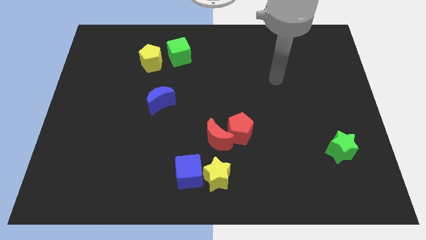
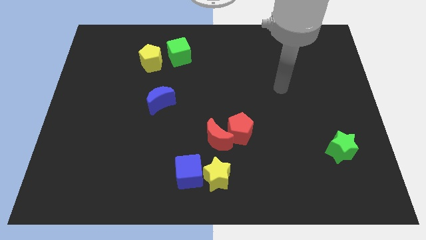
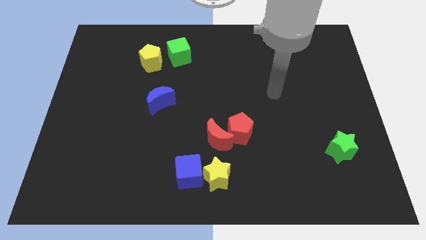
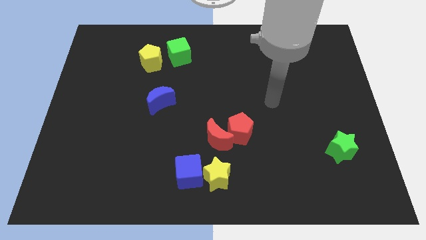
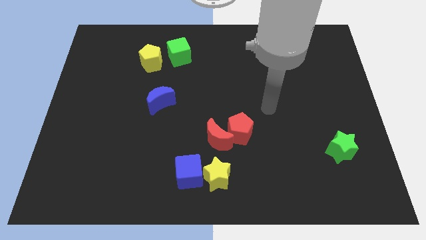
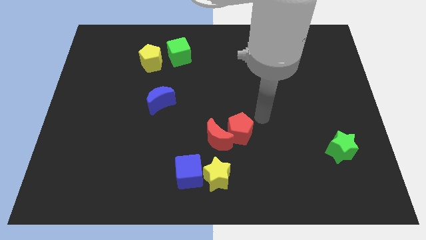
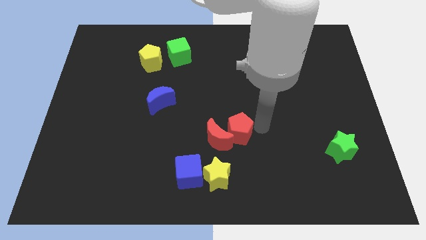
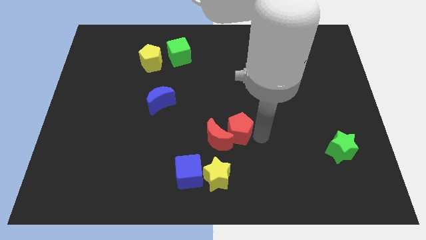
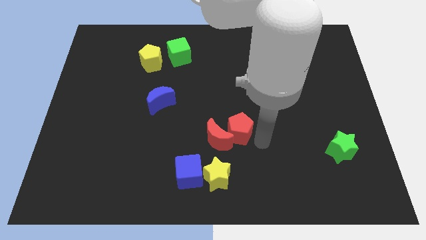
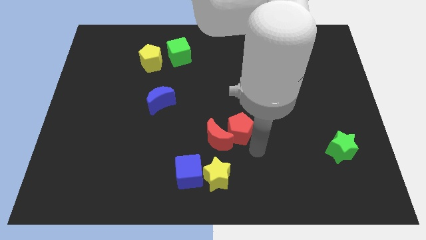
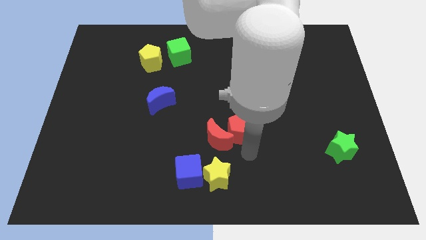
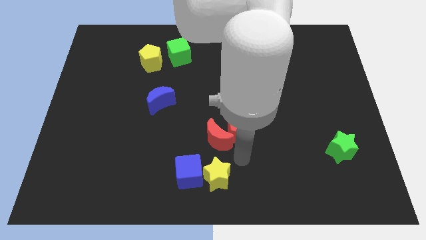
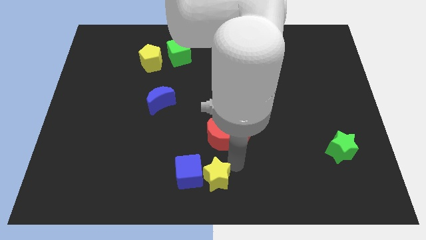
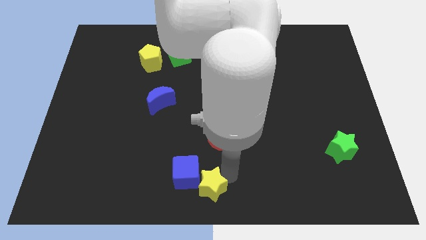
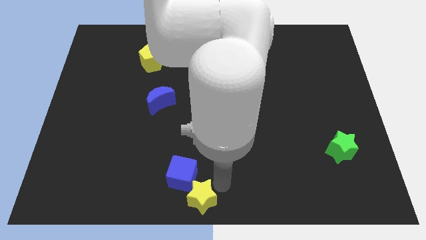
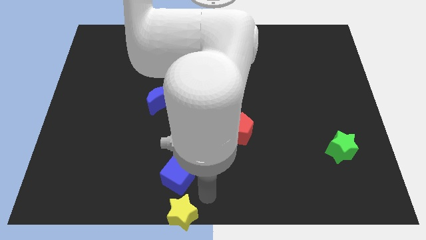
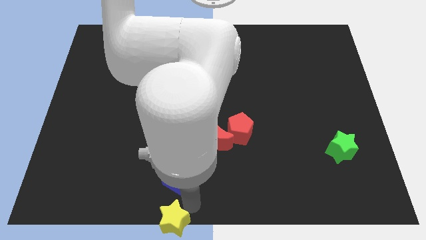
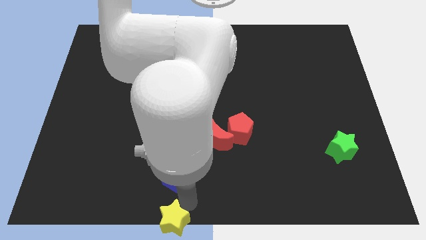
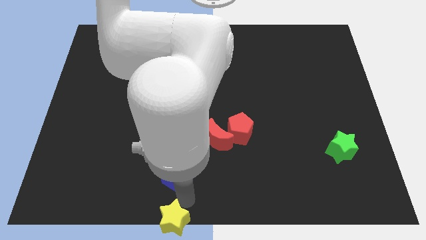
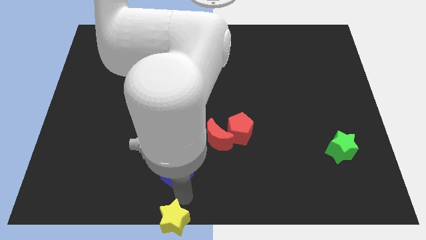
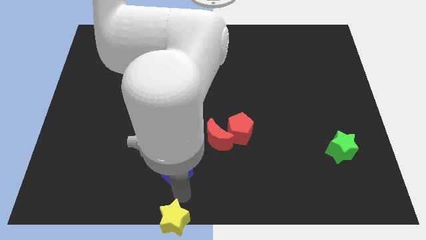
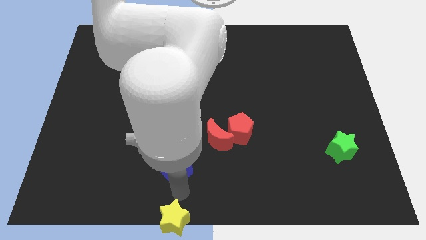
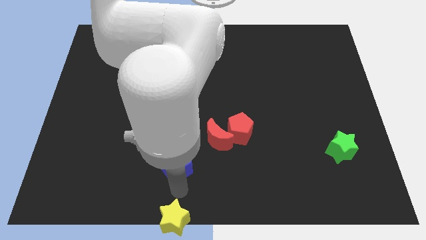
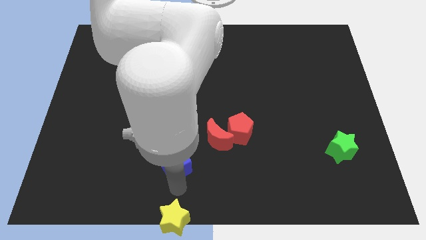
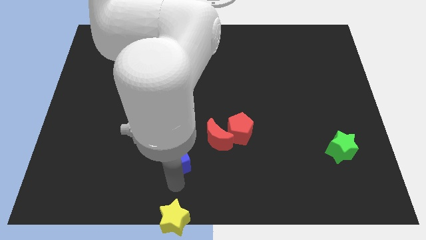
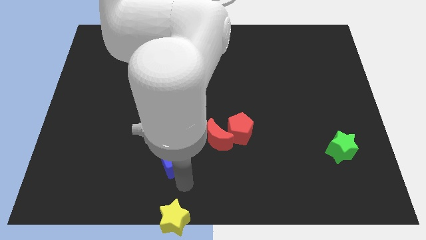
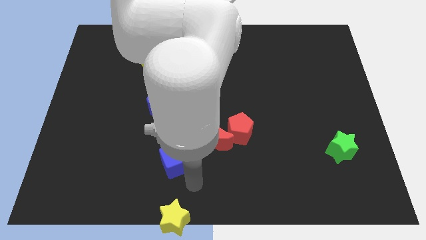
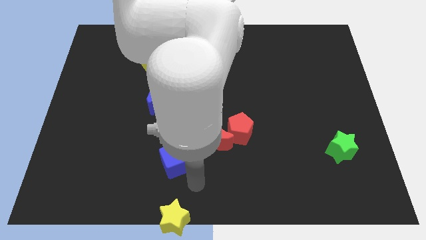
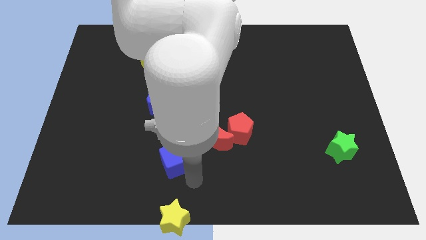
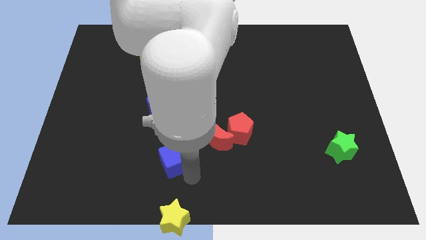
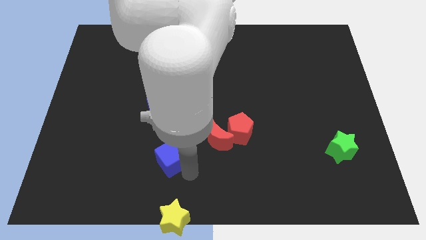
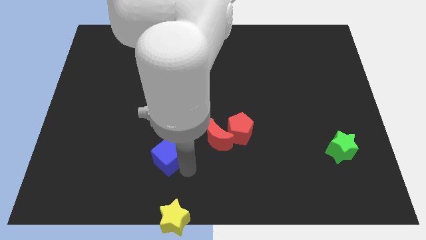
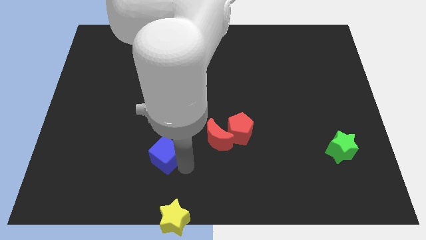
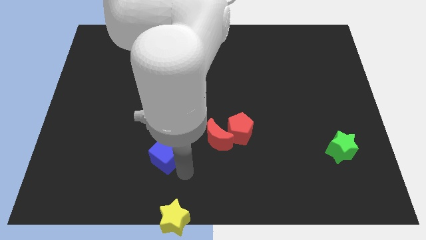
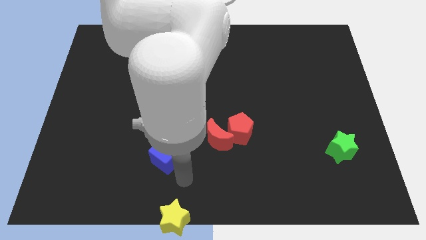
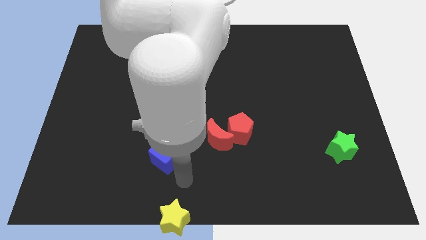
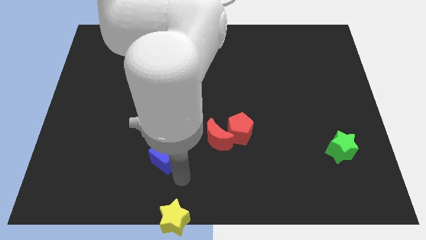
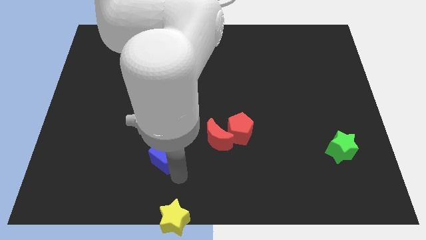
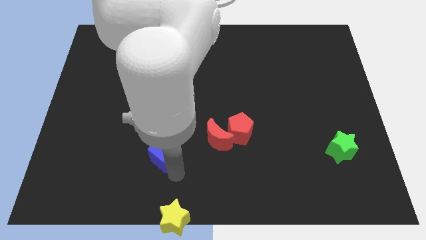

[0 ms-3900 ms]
slide the blue cube a bit upwards and to the left diagonally

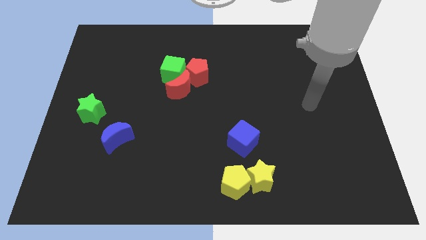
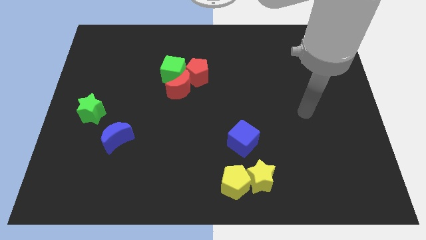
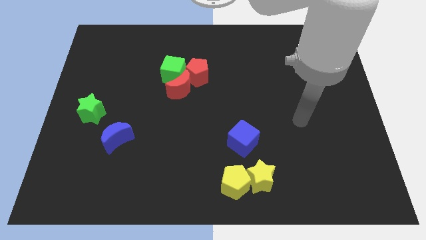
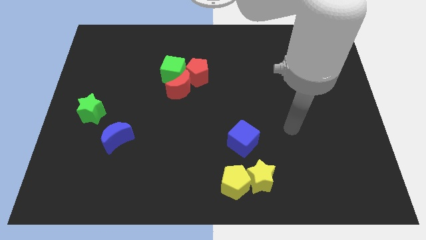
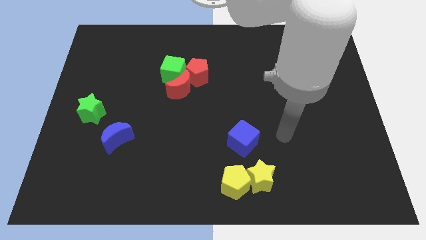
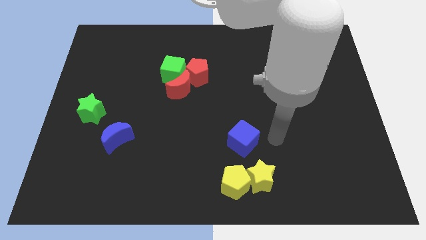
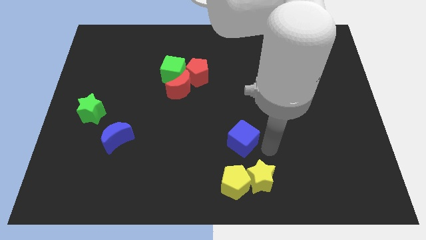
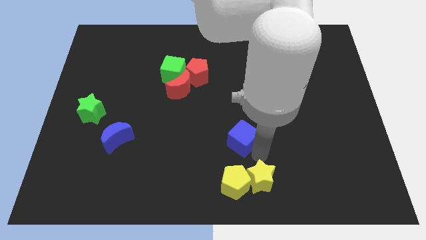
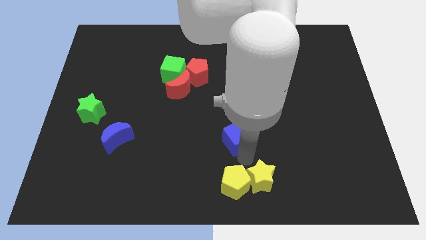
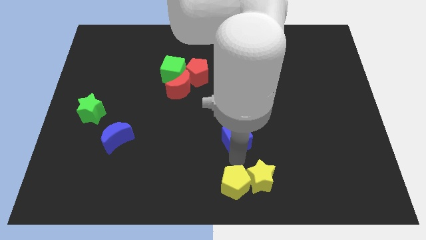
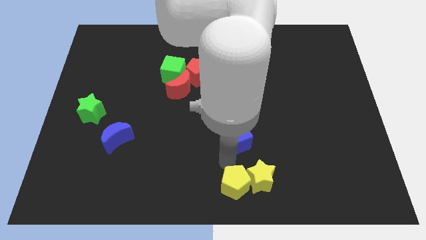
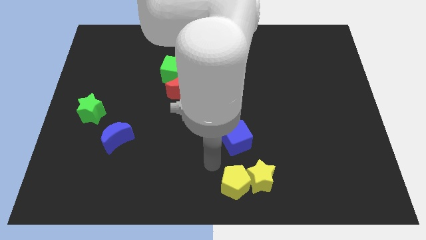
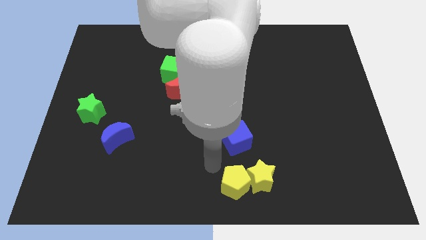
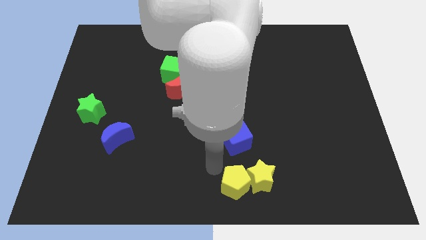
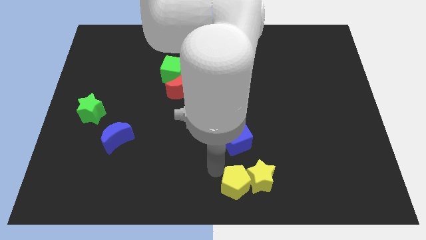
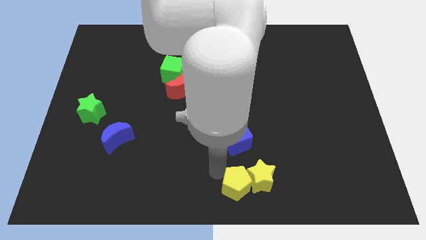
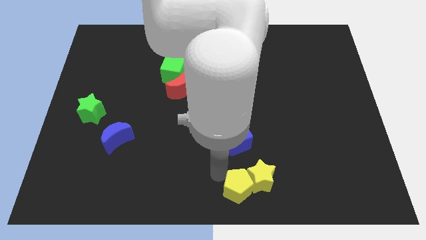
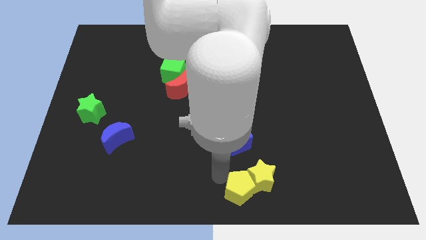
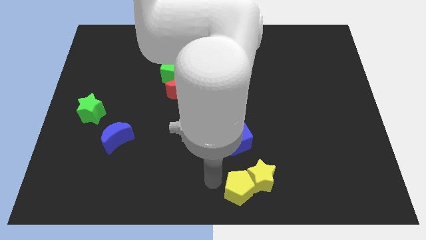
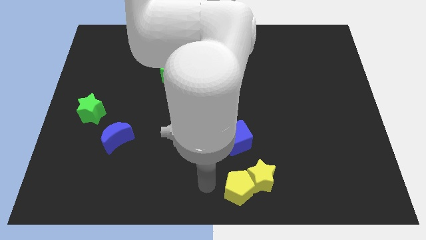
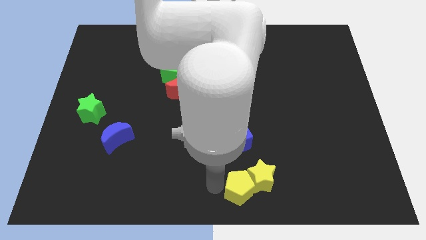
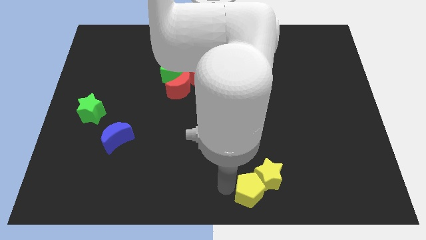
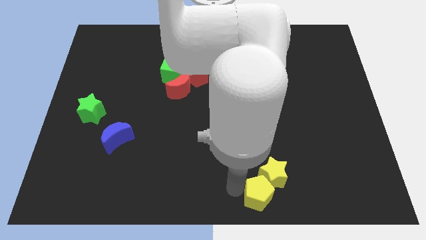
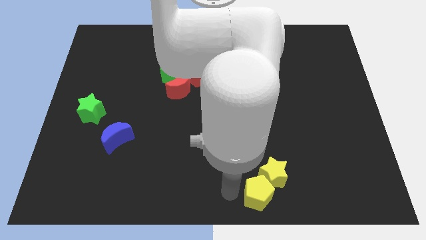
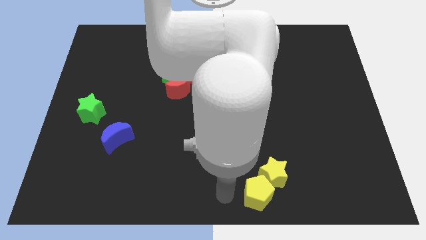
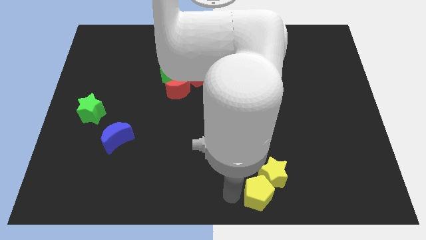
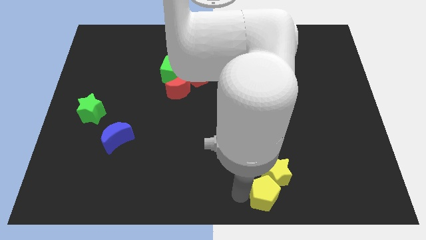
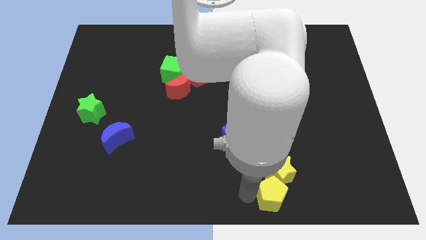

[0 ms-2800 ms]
slide the yellow pentagon right a little bit

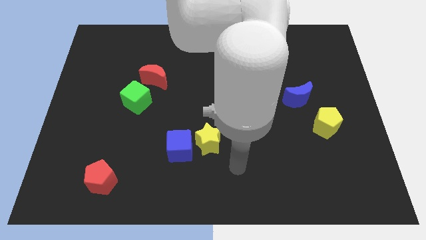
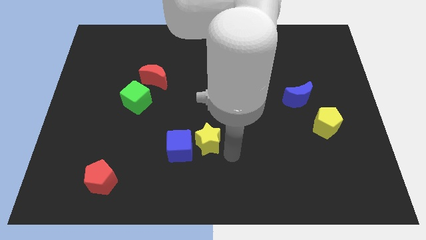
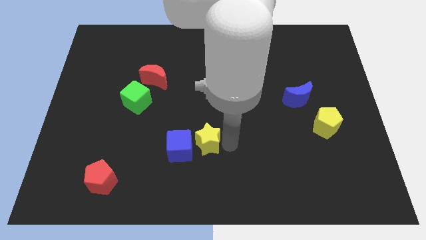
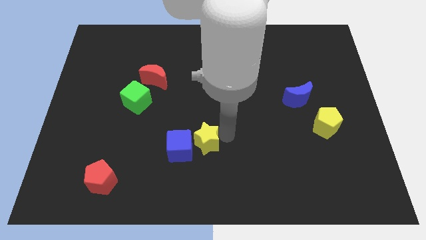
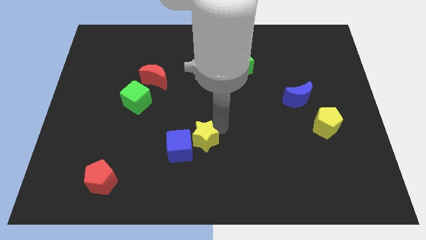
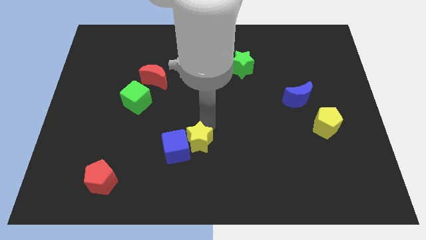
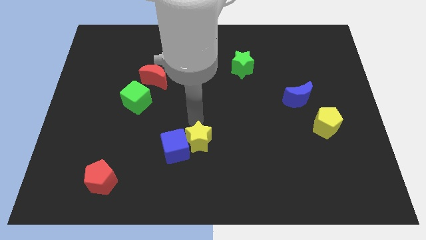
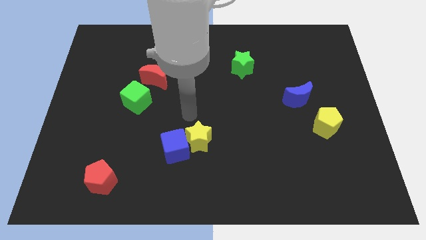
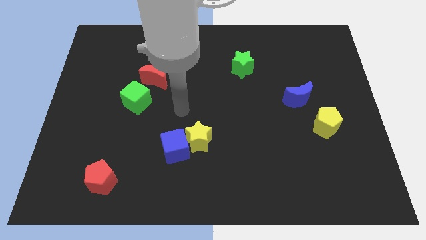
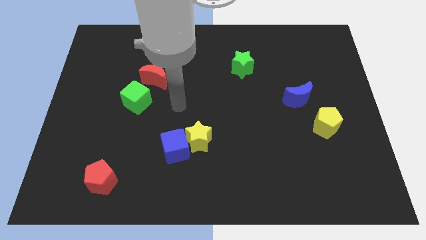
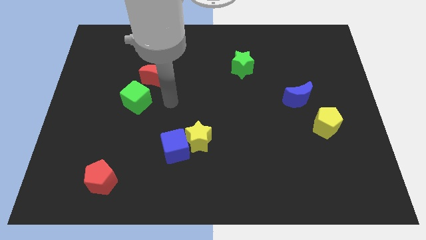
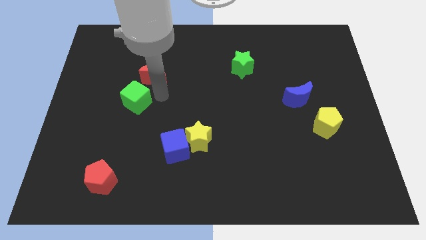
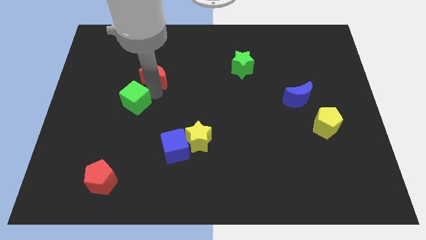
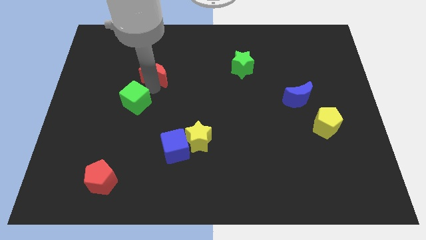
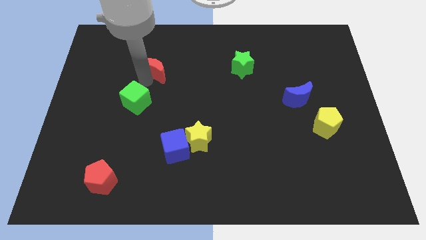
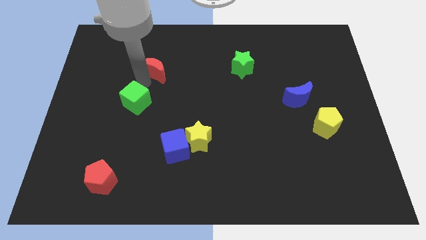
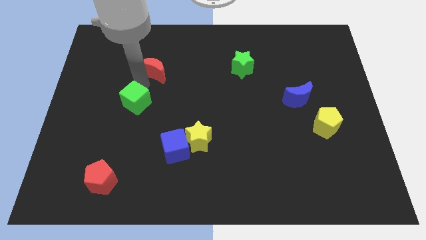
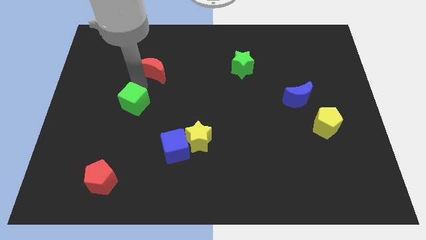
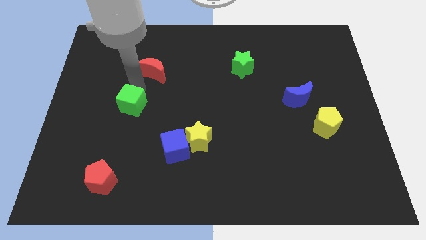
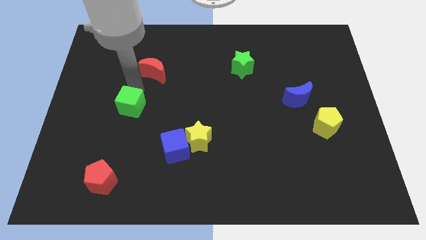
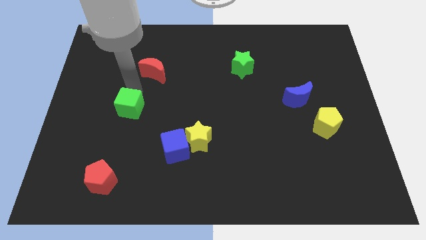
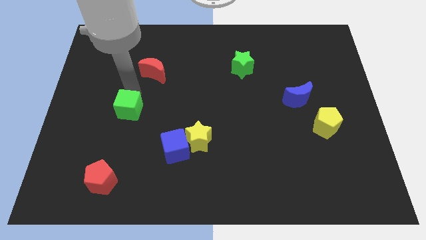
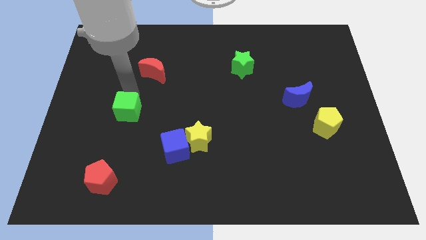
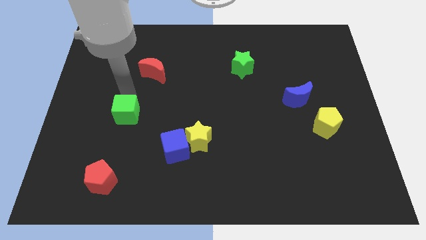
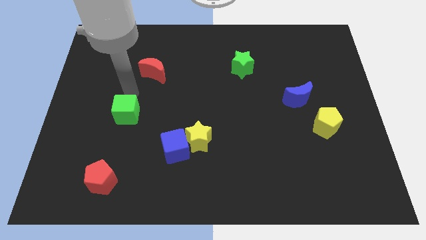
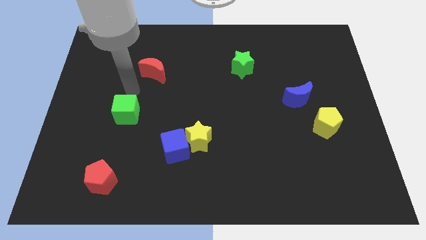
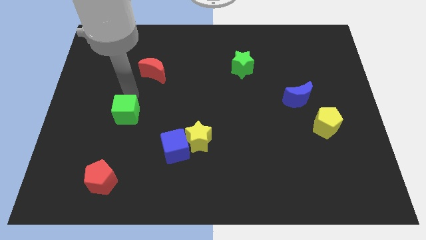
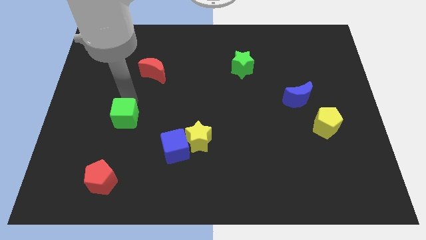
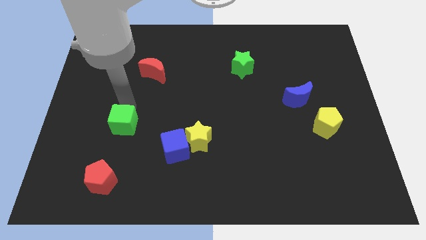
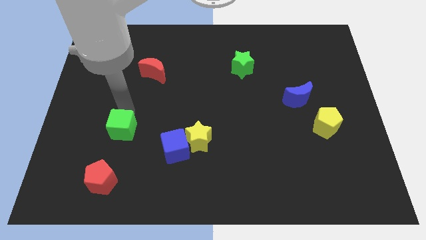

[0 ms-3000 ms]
move the green cube a little down
